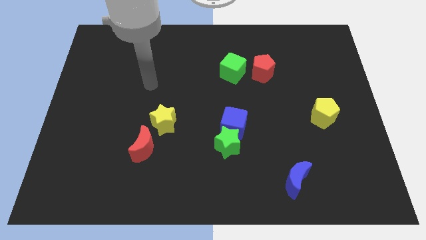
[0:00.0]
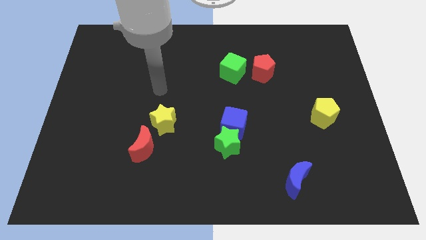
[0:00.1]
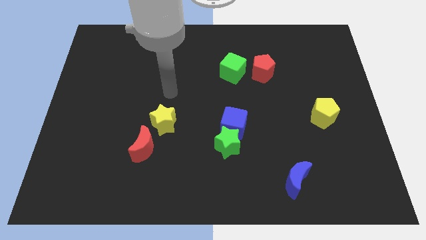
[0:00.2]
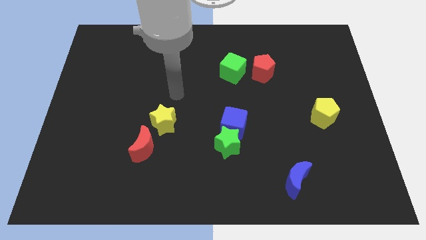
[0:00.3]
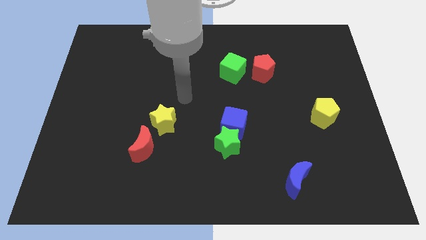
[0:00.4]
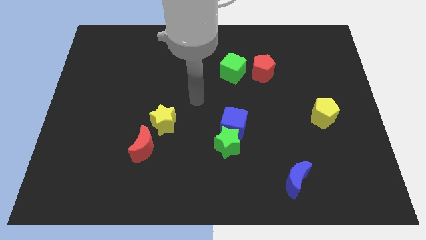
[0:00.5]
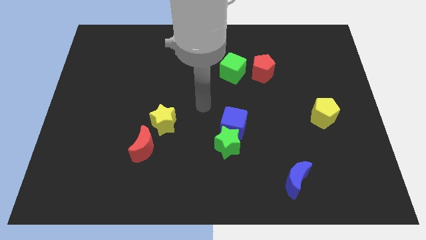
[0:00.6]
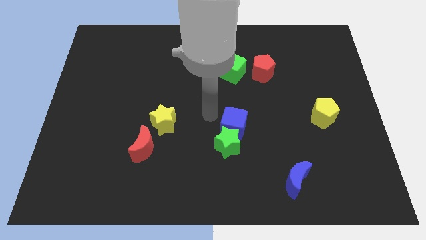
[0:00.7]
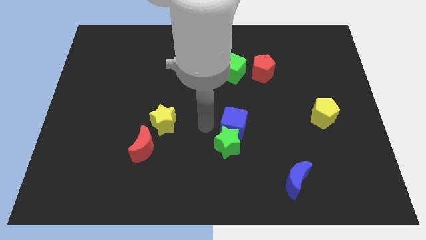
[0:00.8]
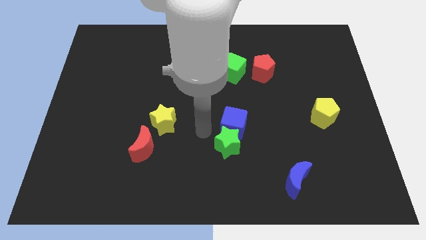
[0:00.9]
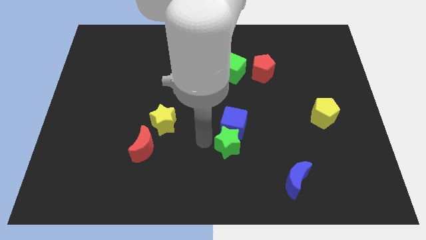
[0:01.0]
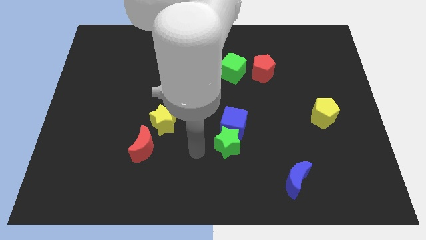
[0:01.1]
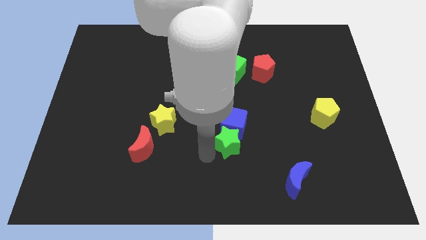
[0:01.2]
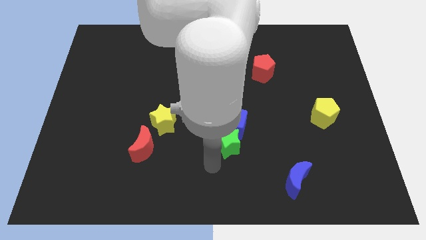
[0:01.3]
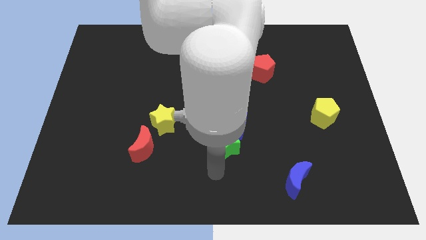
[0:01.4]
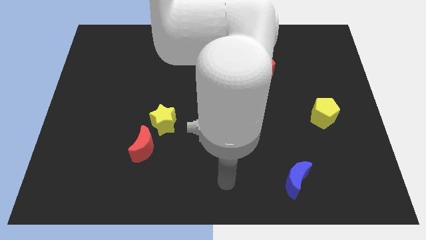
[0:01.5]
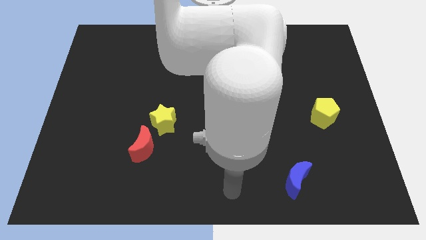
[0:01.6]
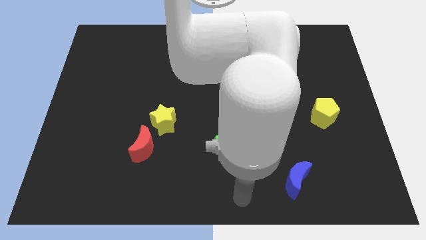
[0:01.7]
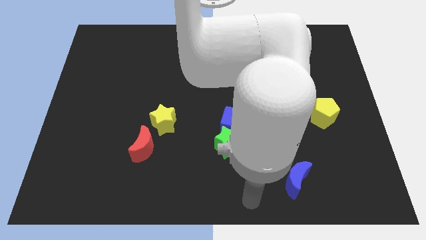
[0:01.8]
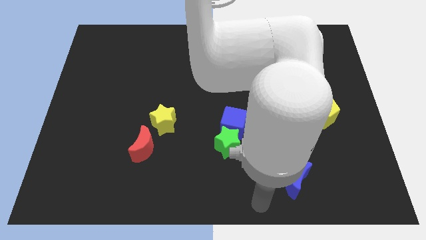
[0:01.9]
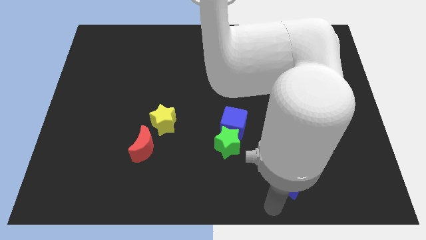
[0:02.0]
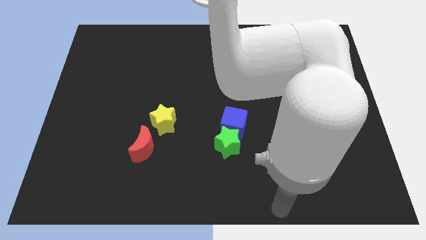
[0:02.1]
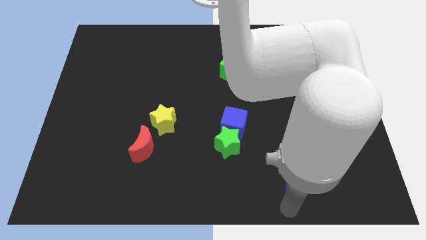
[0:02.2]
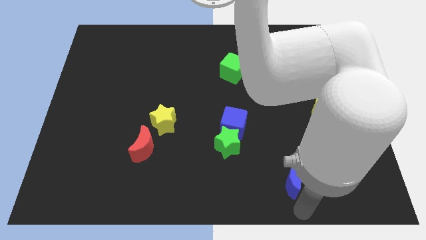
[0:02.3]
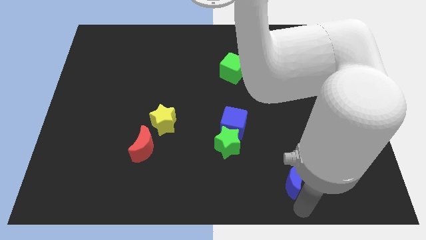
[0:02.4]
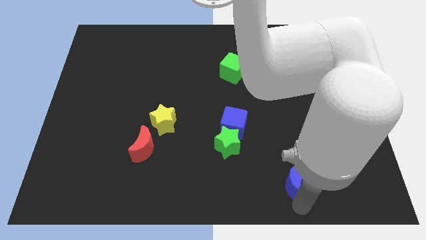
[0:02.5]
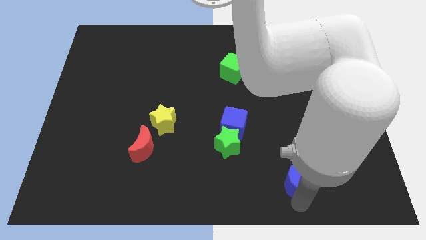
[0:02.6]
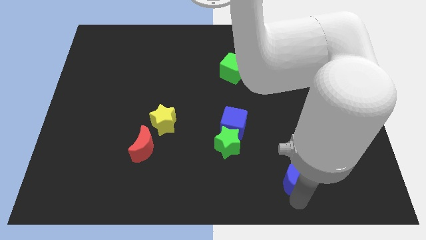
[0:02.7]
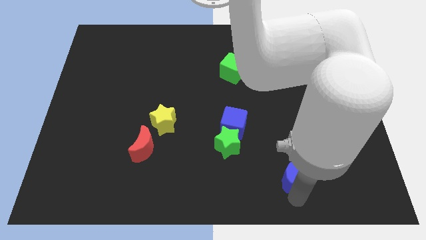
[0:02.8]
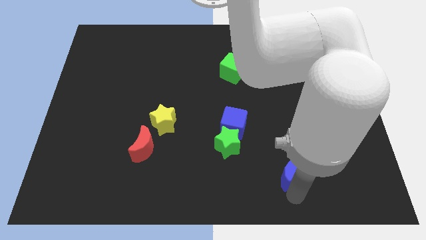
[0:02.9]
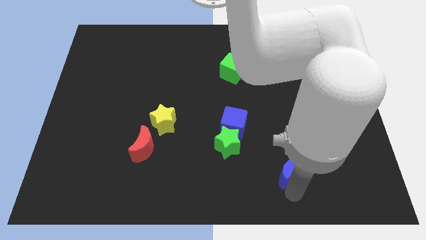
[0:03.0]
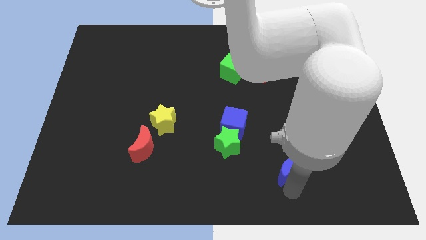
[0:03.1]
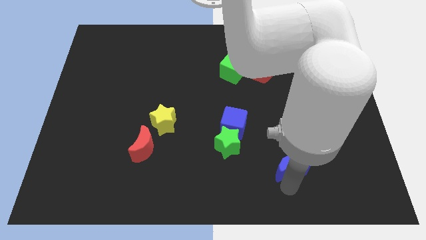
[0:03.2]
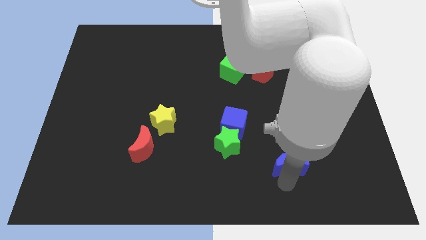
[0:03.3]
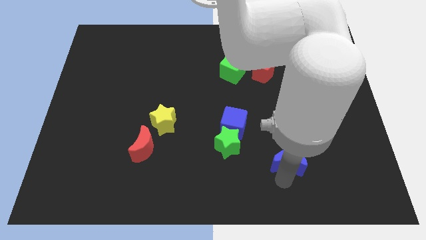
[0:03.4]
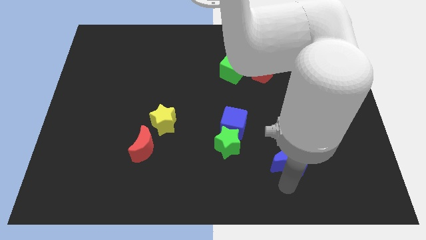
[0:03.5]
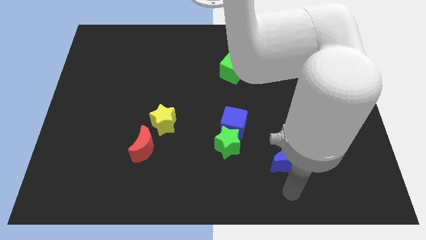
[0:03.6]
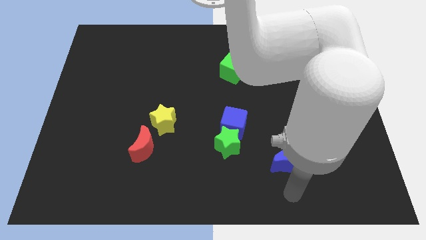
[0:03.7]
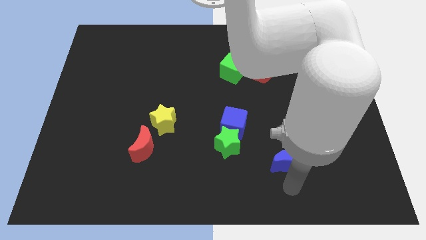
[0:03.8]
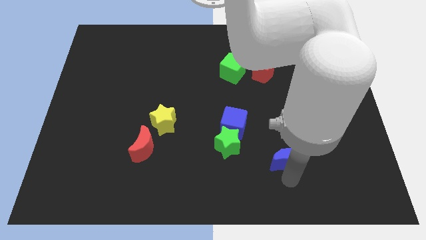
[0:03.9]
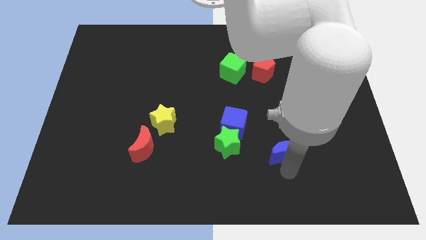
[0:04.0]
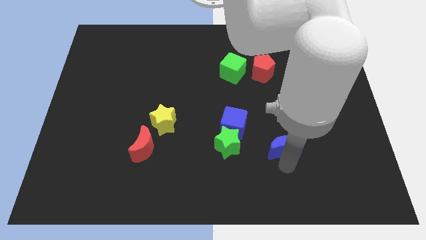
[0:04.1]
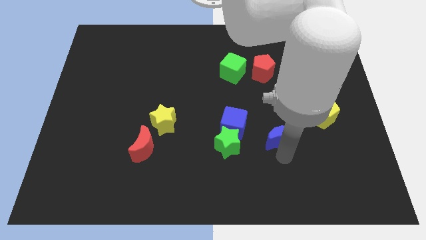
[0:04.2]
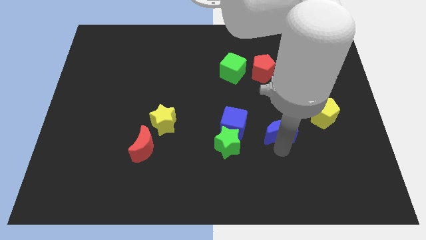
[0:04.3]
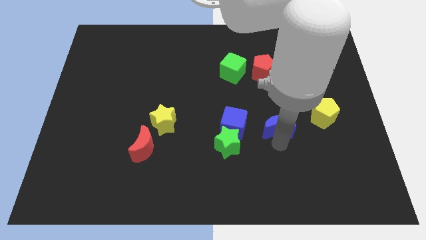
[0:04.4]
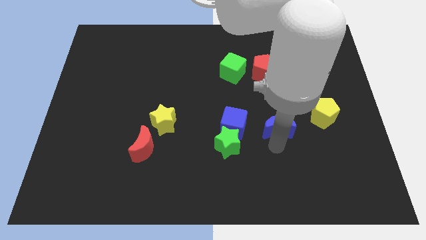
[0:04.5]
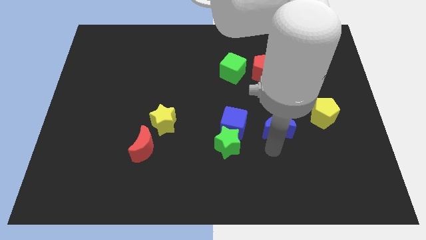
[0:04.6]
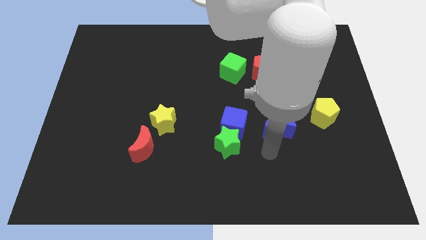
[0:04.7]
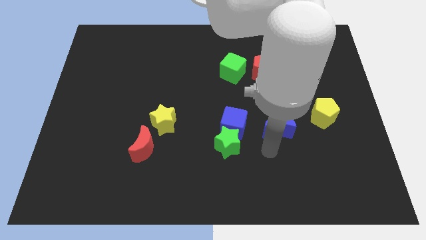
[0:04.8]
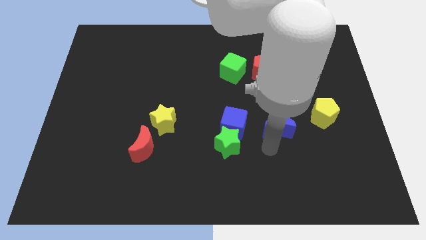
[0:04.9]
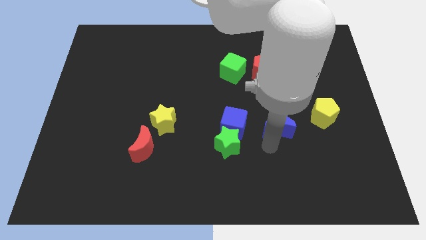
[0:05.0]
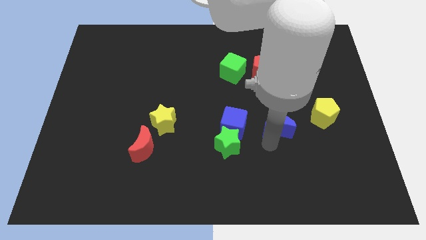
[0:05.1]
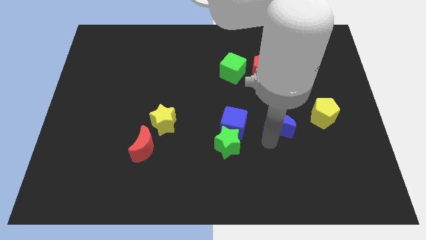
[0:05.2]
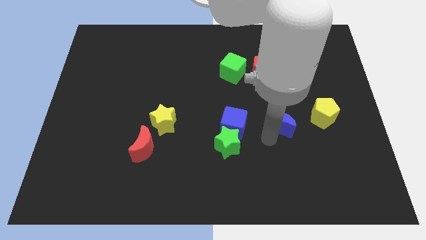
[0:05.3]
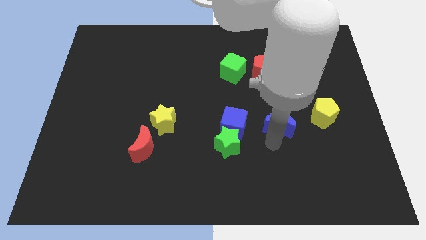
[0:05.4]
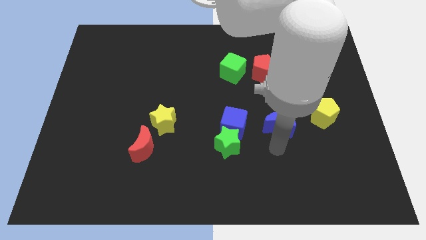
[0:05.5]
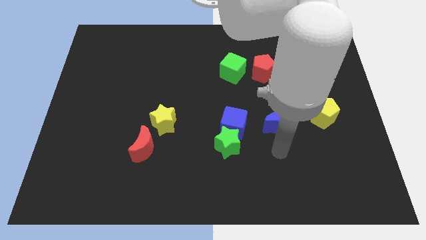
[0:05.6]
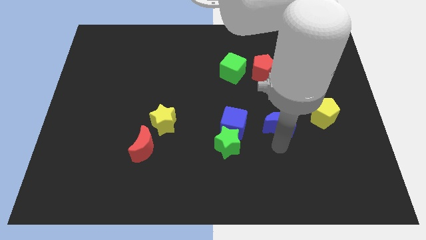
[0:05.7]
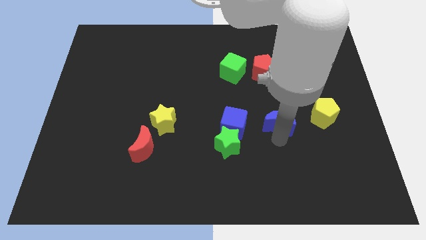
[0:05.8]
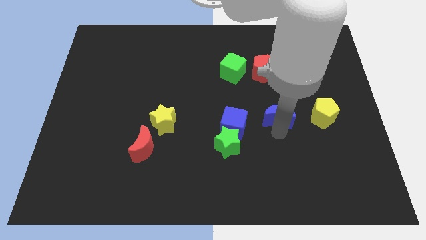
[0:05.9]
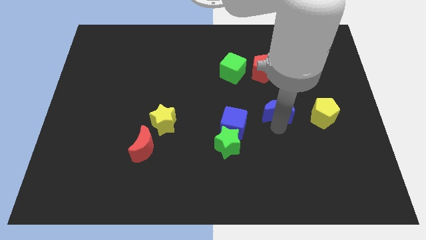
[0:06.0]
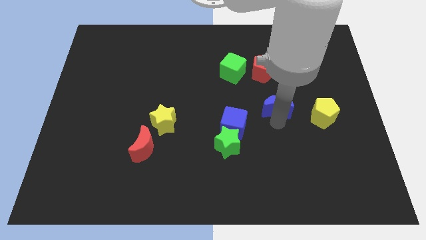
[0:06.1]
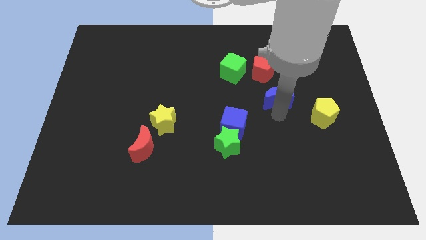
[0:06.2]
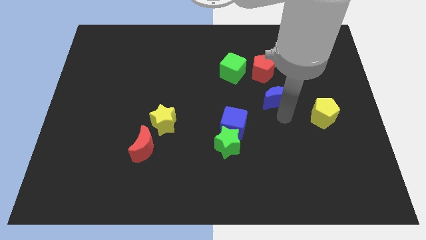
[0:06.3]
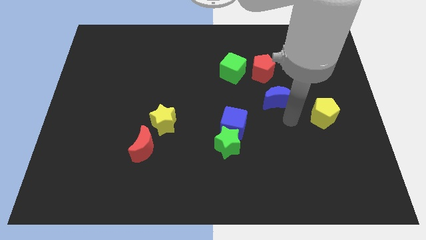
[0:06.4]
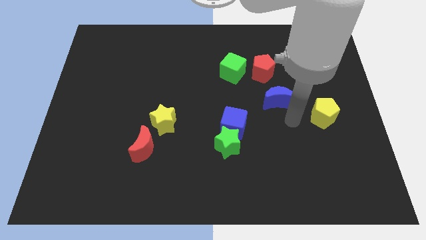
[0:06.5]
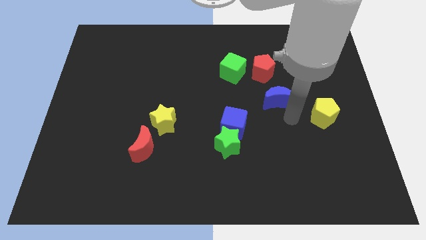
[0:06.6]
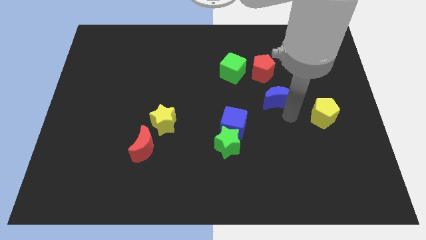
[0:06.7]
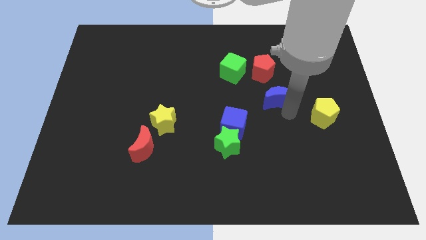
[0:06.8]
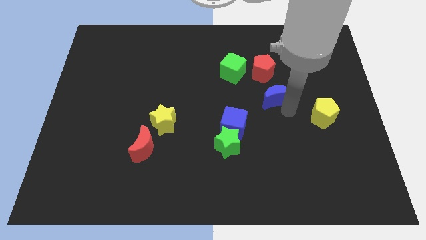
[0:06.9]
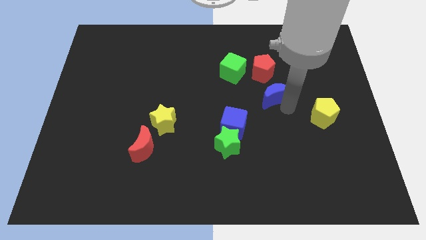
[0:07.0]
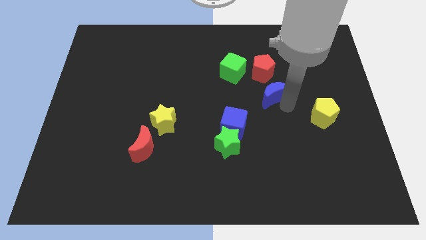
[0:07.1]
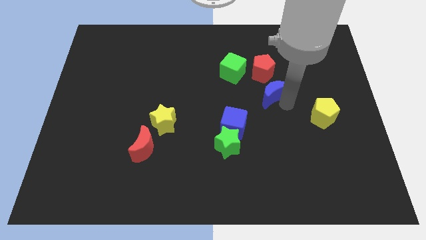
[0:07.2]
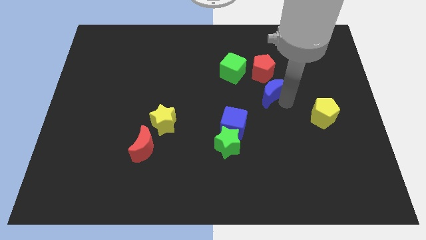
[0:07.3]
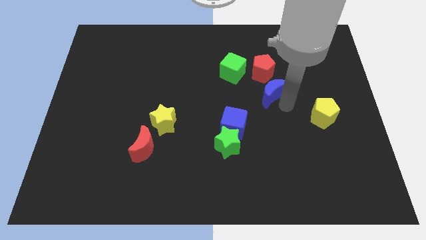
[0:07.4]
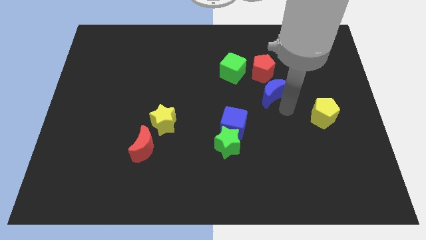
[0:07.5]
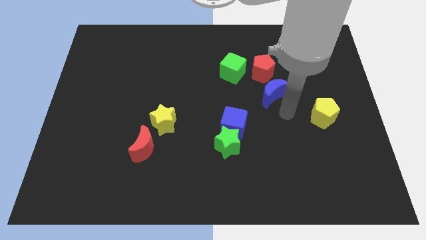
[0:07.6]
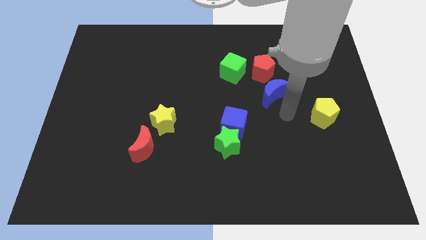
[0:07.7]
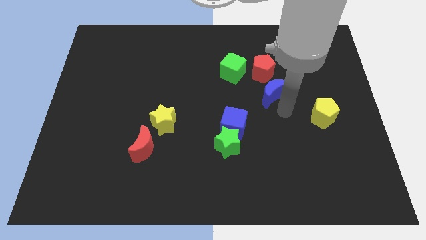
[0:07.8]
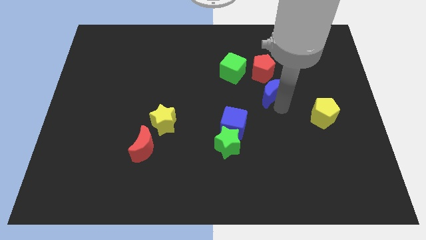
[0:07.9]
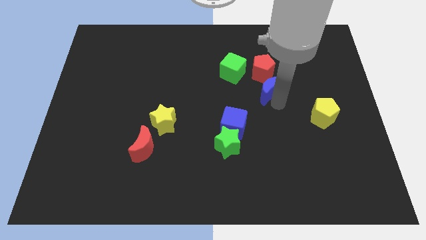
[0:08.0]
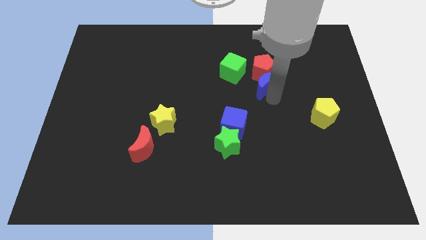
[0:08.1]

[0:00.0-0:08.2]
push the blue moon to the red pentagon
